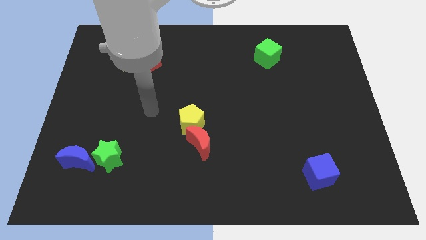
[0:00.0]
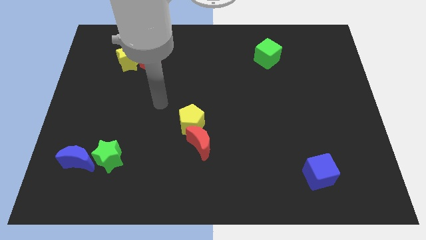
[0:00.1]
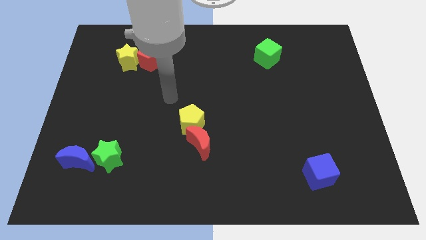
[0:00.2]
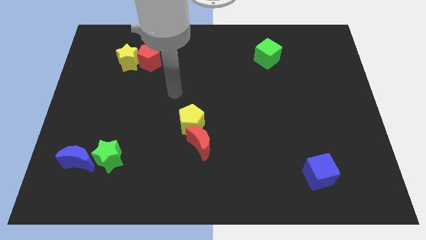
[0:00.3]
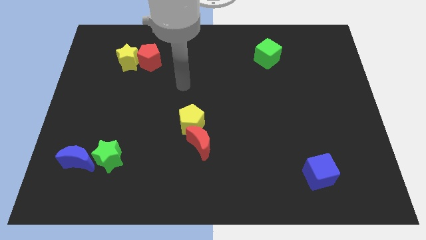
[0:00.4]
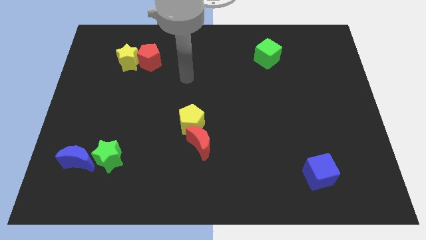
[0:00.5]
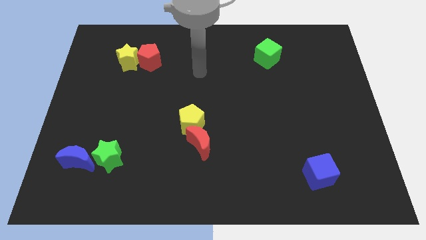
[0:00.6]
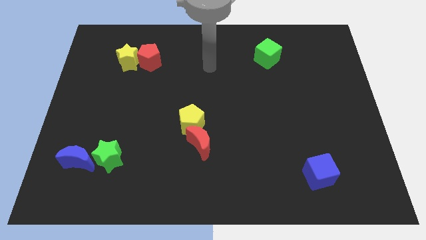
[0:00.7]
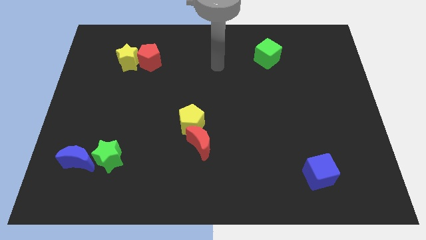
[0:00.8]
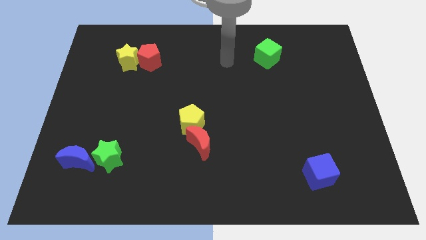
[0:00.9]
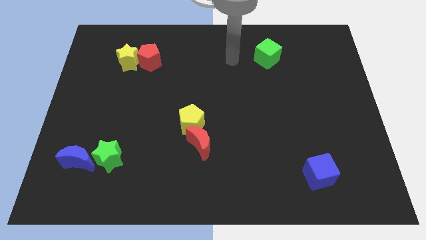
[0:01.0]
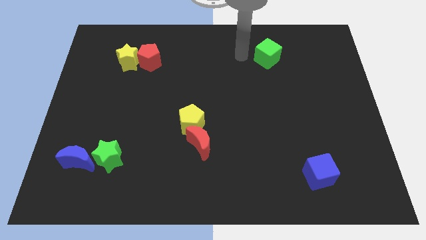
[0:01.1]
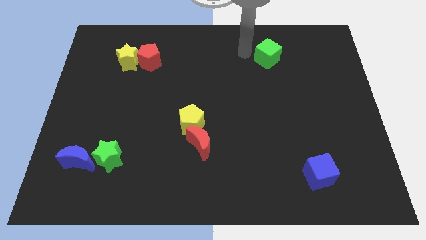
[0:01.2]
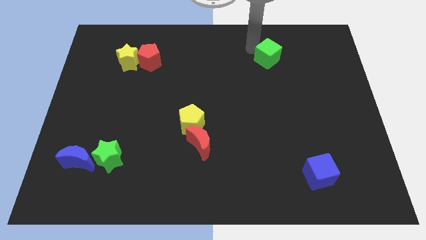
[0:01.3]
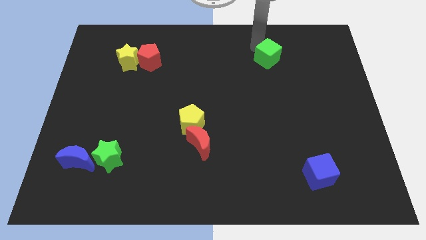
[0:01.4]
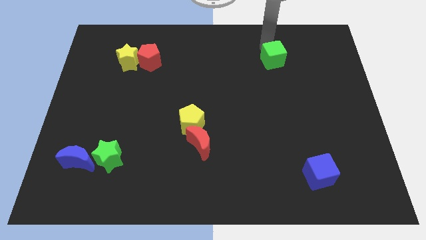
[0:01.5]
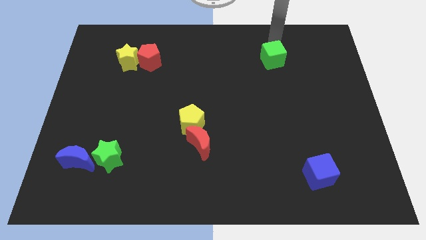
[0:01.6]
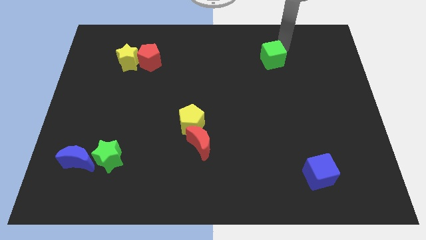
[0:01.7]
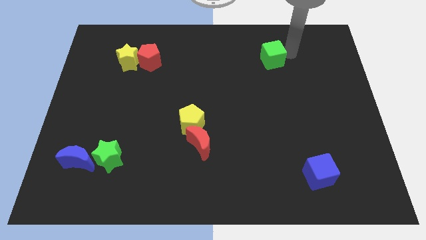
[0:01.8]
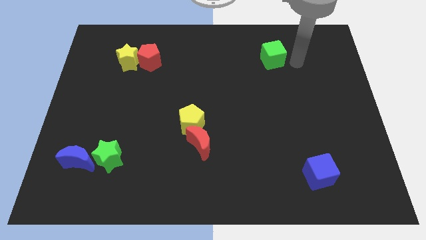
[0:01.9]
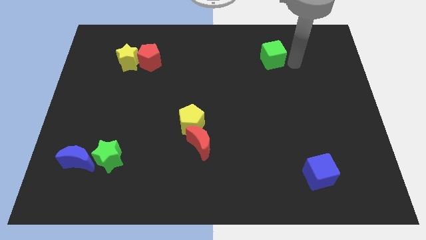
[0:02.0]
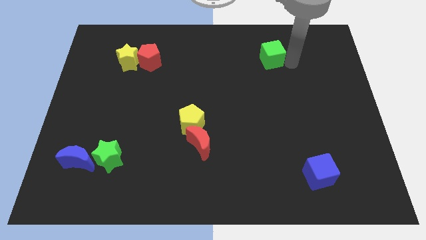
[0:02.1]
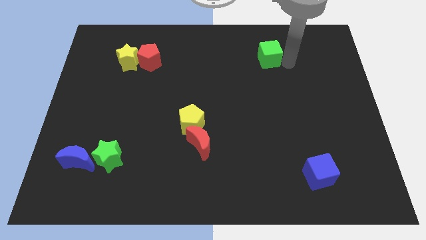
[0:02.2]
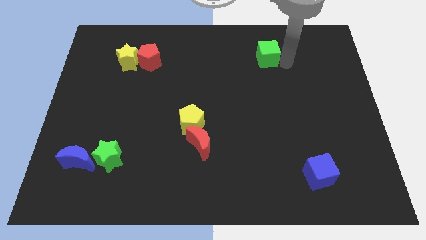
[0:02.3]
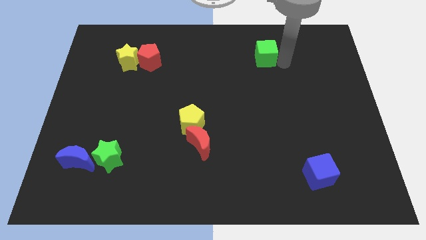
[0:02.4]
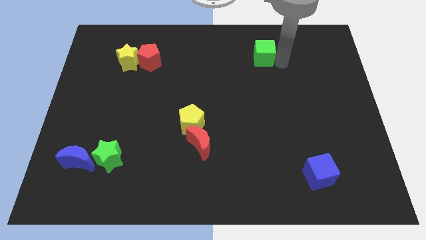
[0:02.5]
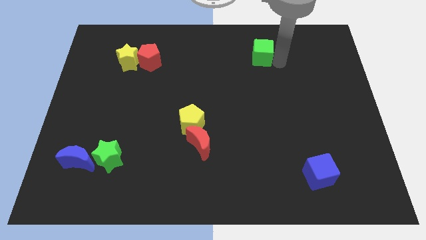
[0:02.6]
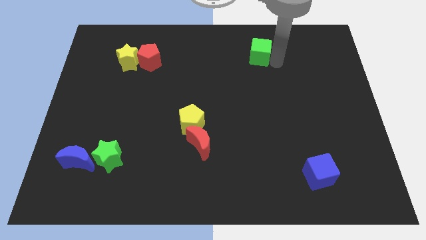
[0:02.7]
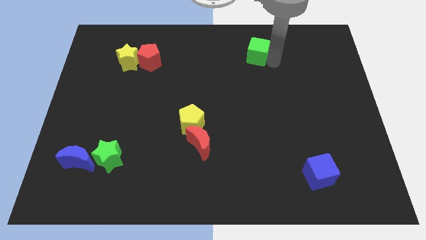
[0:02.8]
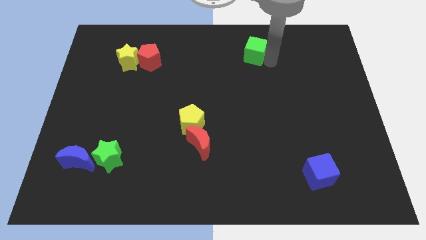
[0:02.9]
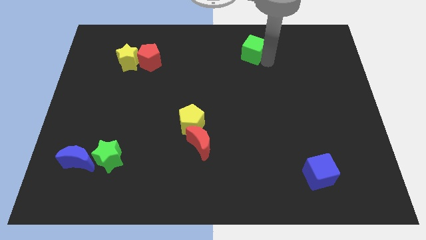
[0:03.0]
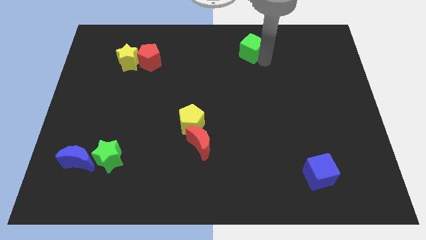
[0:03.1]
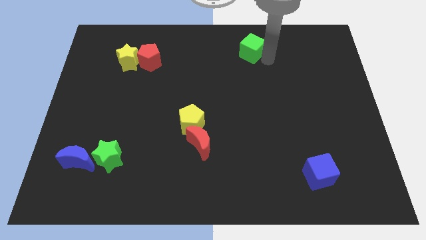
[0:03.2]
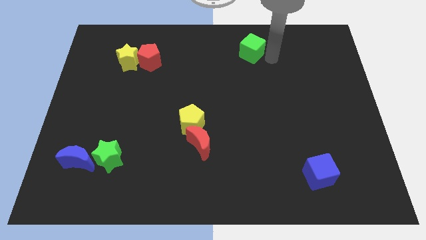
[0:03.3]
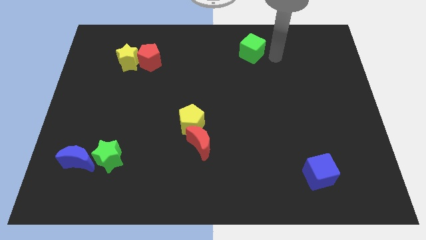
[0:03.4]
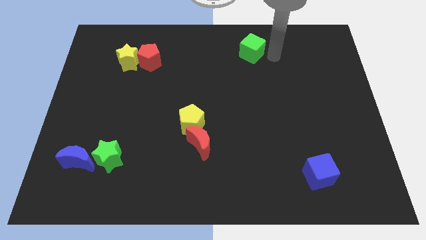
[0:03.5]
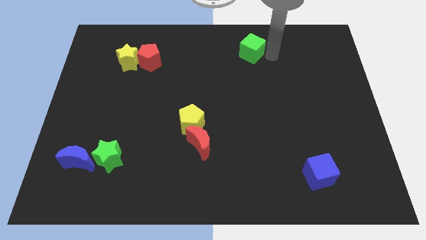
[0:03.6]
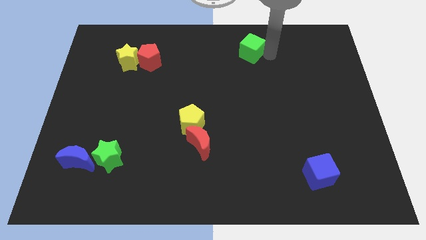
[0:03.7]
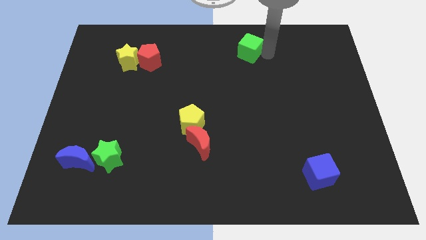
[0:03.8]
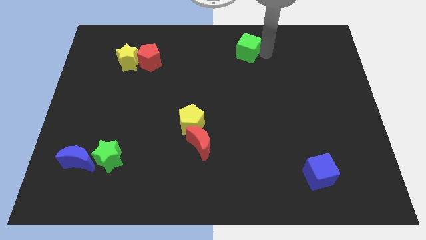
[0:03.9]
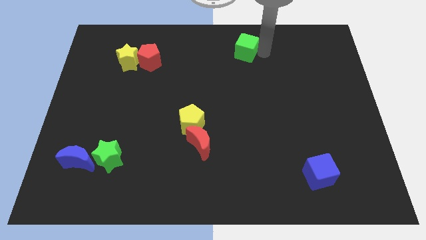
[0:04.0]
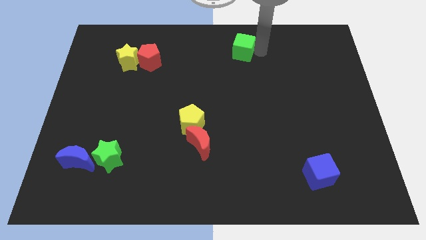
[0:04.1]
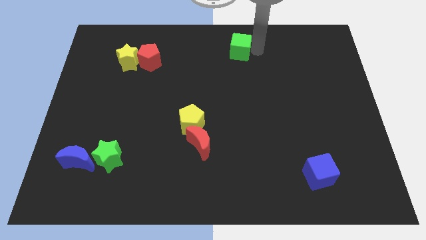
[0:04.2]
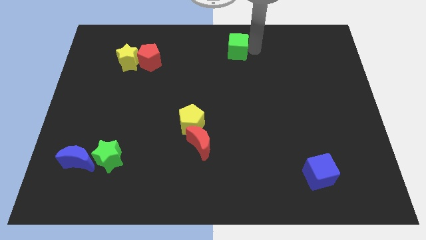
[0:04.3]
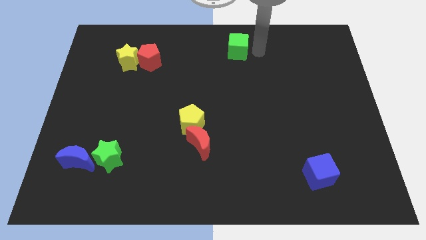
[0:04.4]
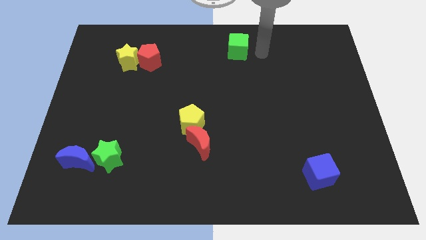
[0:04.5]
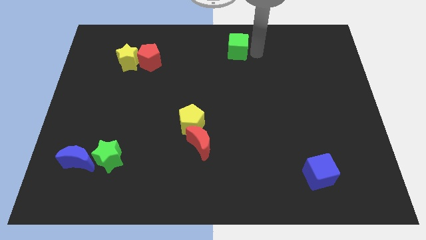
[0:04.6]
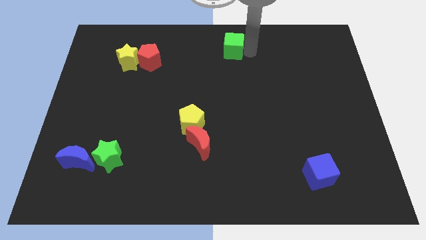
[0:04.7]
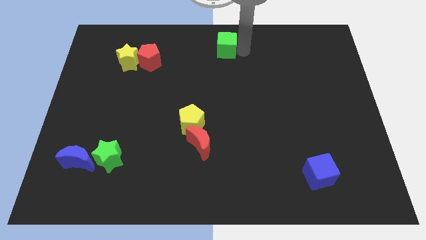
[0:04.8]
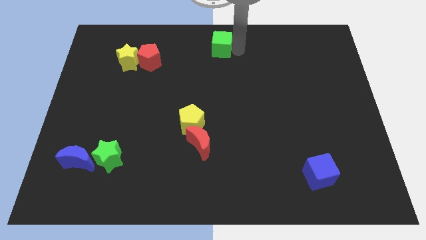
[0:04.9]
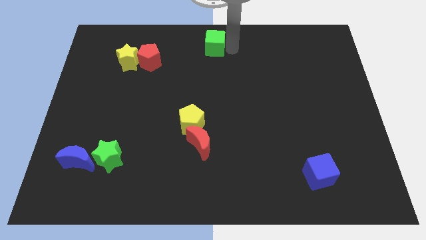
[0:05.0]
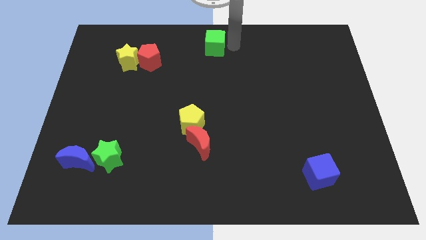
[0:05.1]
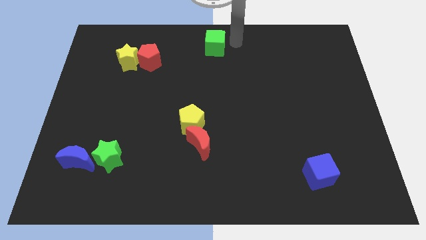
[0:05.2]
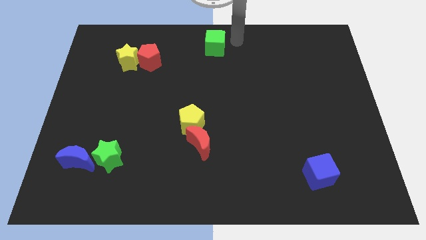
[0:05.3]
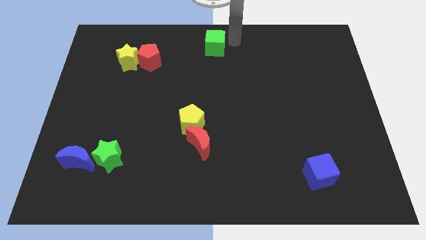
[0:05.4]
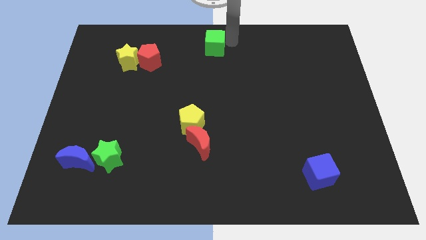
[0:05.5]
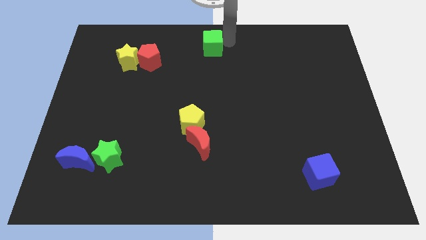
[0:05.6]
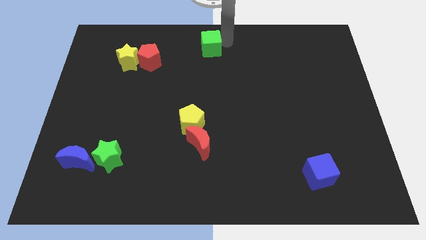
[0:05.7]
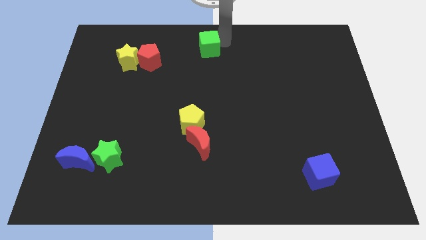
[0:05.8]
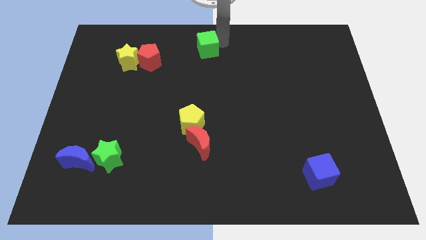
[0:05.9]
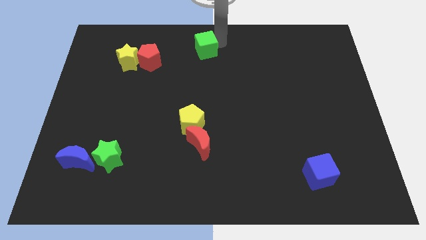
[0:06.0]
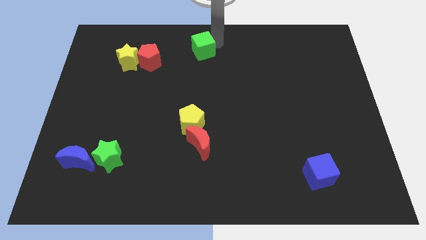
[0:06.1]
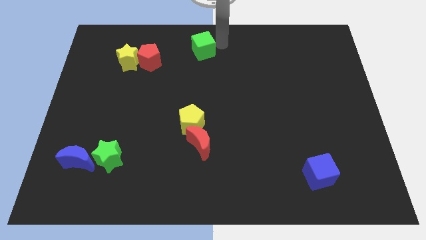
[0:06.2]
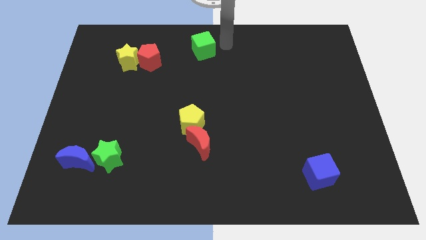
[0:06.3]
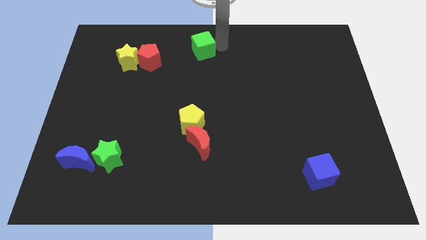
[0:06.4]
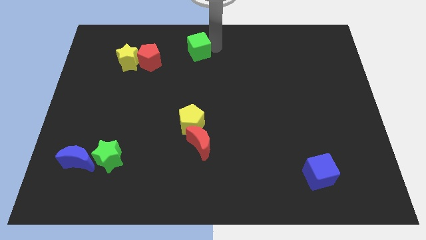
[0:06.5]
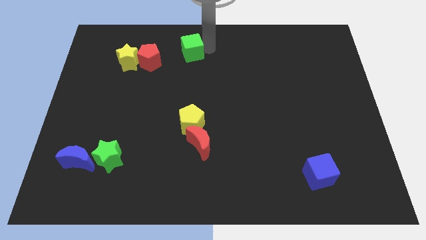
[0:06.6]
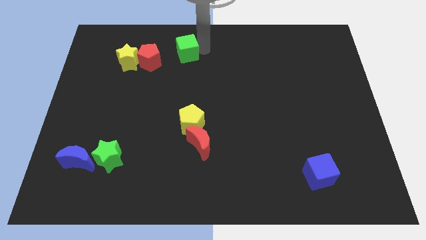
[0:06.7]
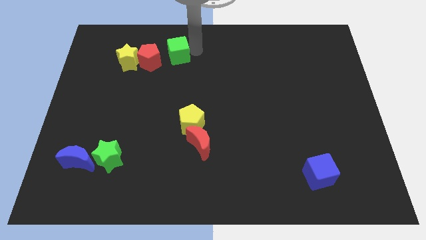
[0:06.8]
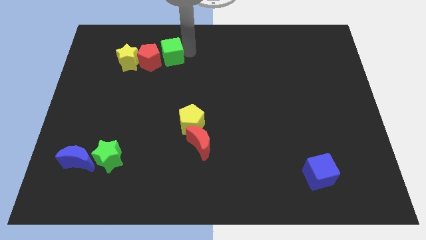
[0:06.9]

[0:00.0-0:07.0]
push the green cube close to the red pentagon

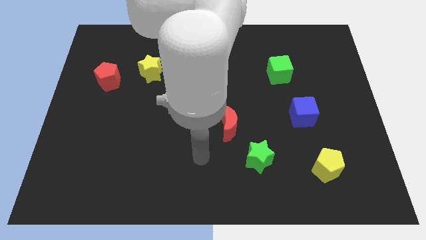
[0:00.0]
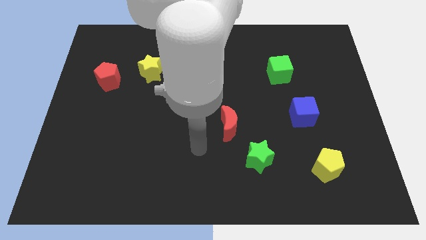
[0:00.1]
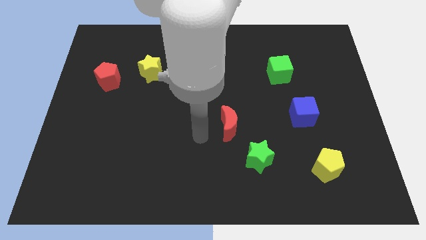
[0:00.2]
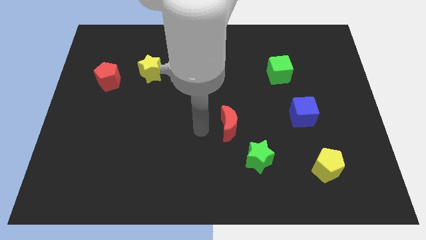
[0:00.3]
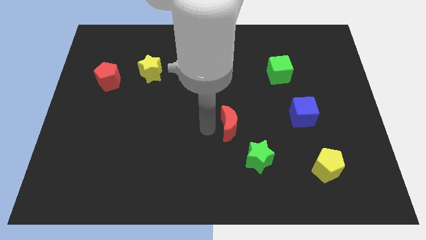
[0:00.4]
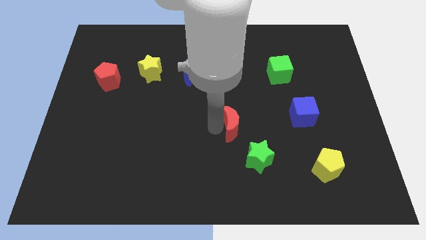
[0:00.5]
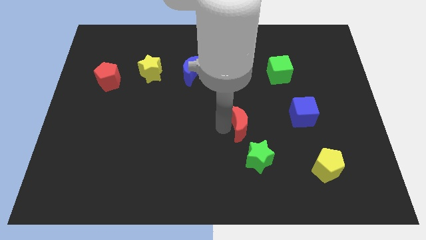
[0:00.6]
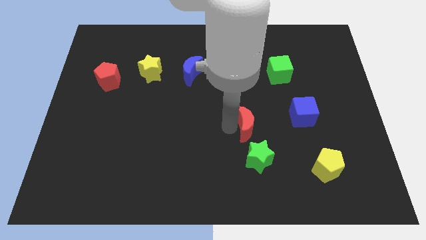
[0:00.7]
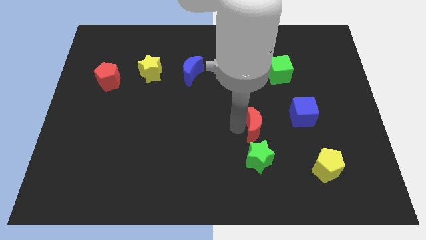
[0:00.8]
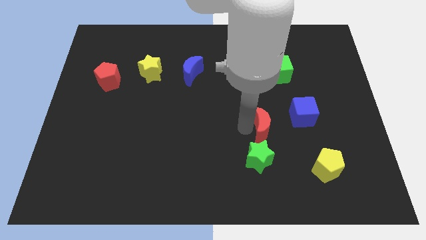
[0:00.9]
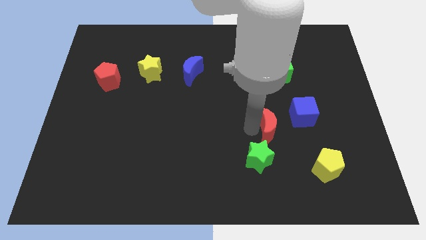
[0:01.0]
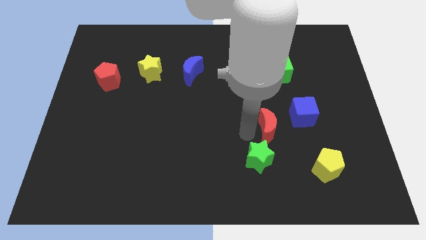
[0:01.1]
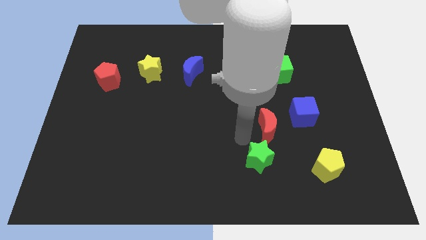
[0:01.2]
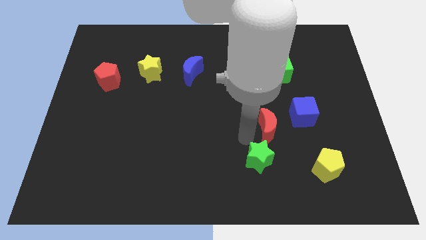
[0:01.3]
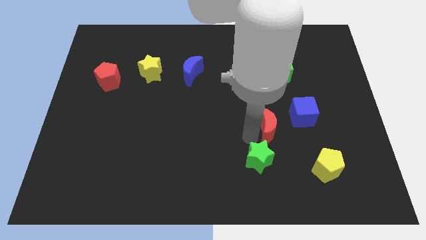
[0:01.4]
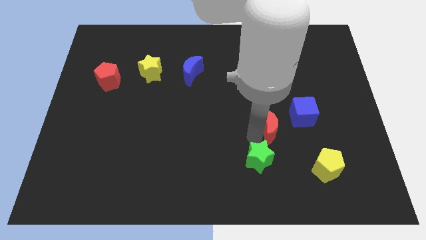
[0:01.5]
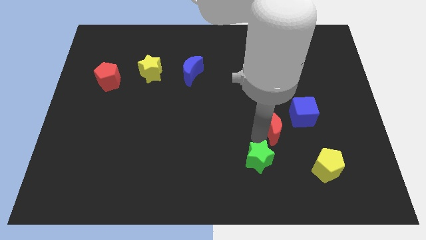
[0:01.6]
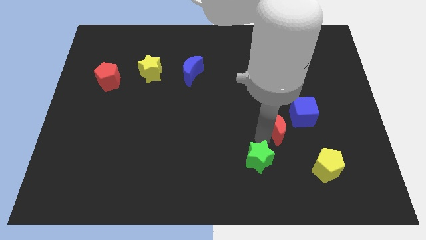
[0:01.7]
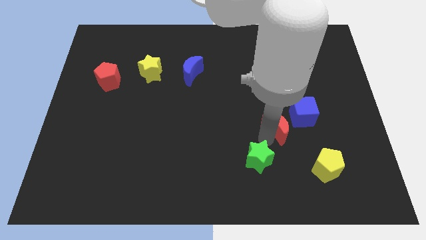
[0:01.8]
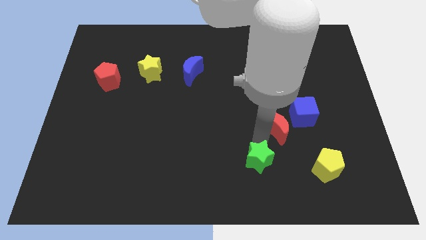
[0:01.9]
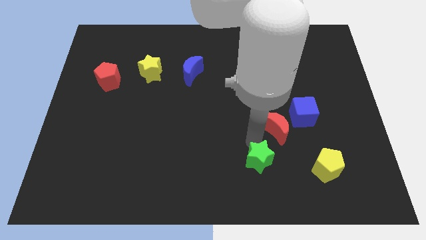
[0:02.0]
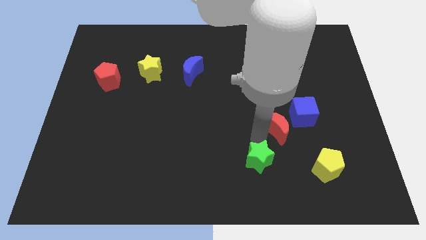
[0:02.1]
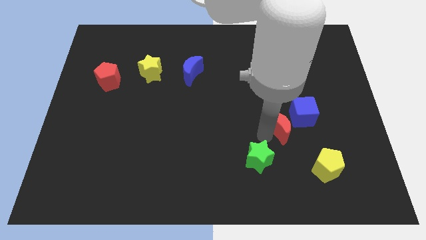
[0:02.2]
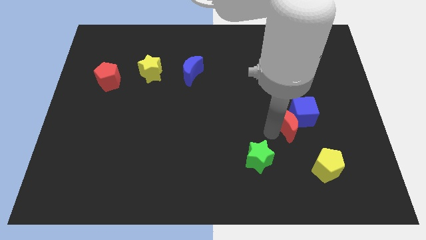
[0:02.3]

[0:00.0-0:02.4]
slide the red moon next to the blue cube
